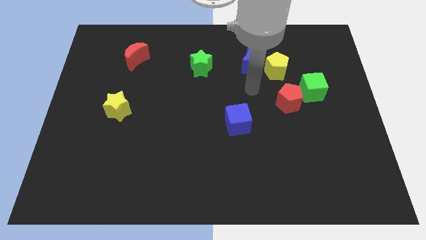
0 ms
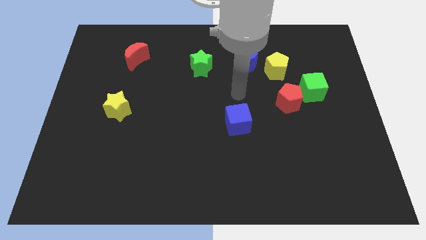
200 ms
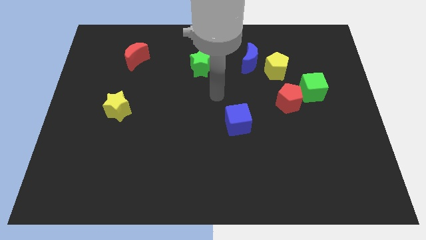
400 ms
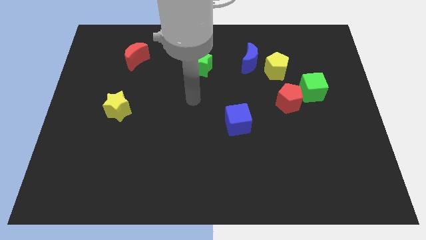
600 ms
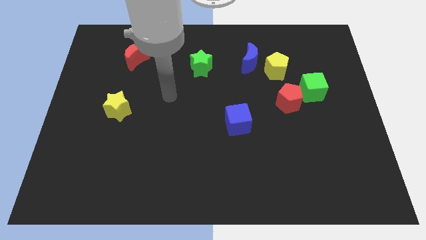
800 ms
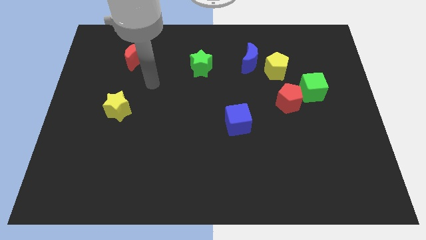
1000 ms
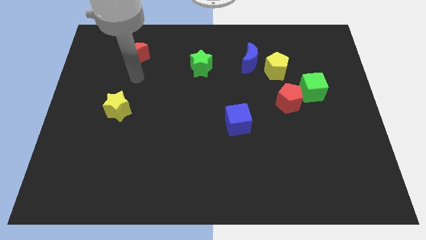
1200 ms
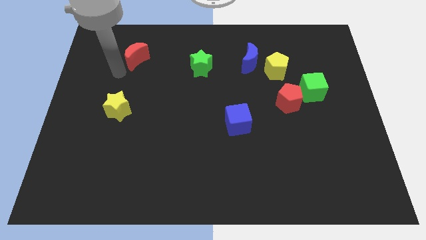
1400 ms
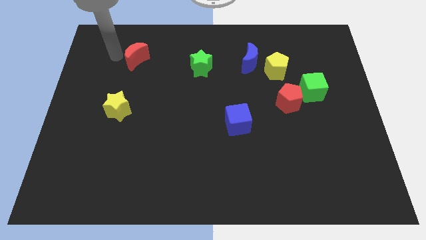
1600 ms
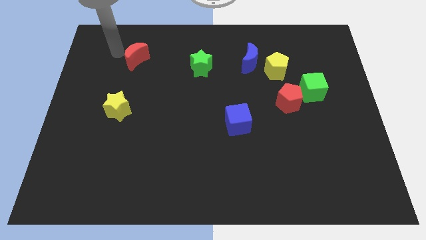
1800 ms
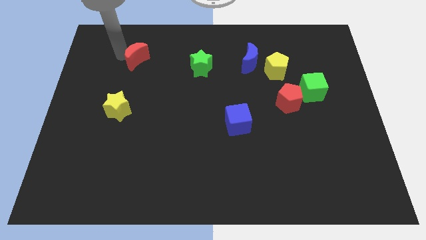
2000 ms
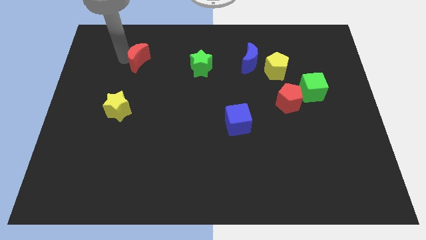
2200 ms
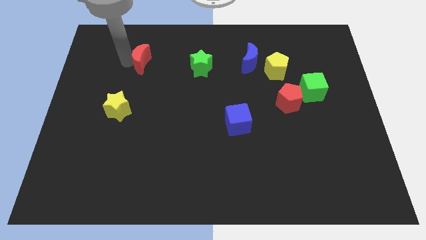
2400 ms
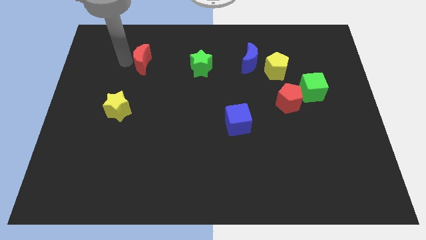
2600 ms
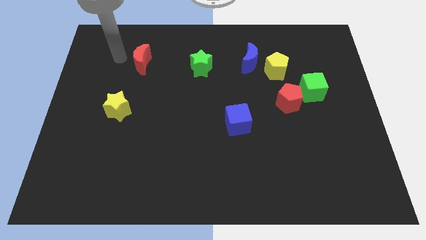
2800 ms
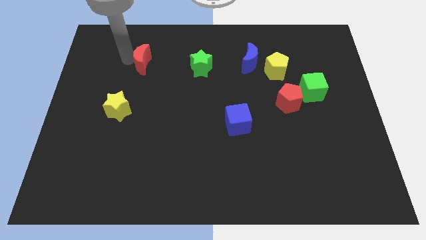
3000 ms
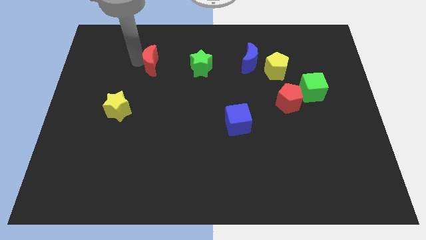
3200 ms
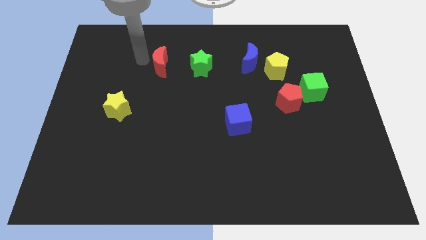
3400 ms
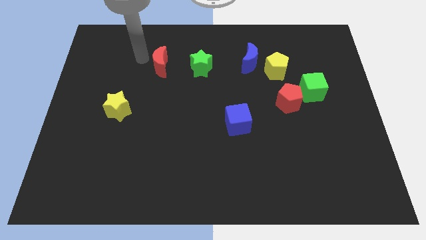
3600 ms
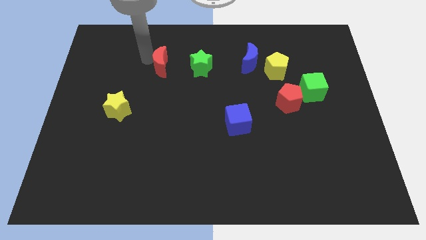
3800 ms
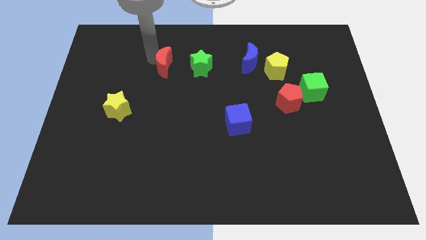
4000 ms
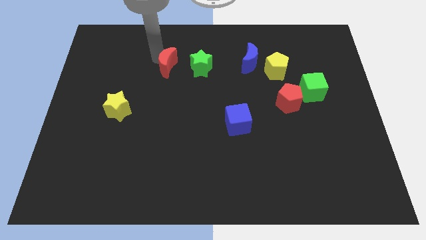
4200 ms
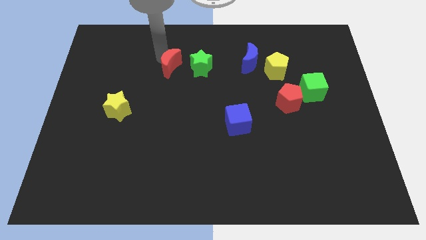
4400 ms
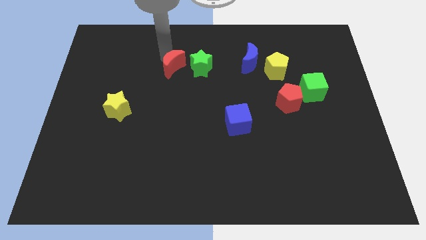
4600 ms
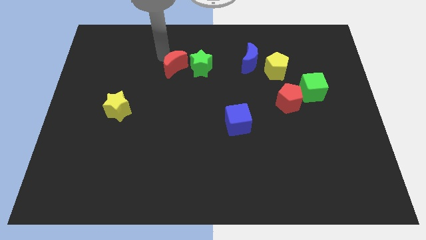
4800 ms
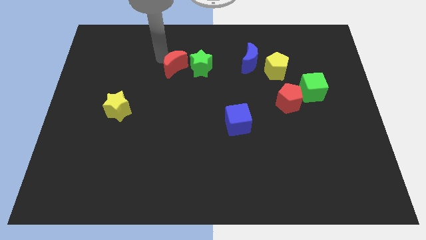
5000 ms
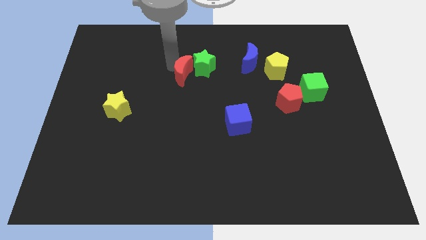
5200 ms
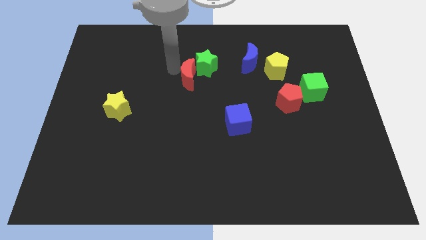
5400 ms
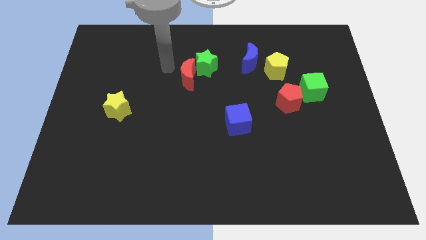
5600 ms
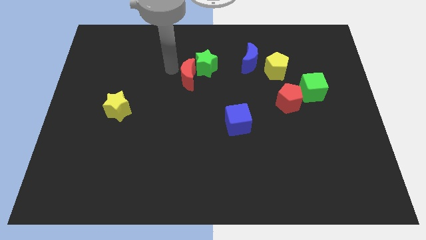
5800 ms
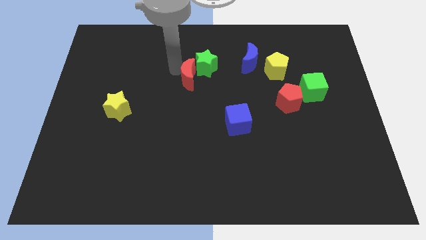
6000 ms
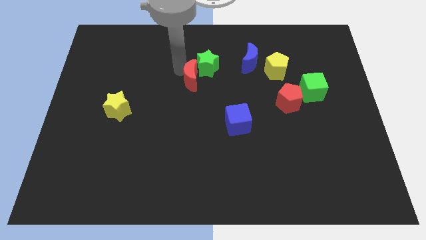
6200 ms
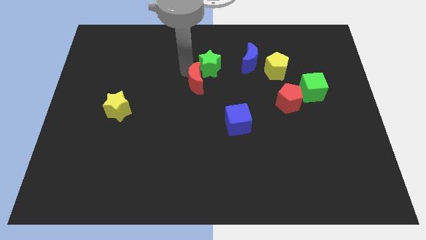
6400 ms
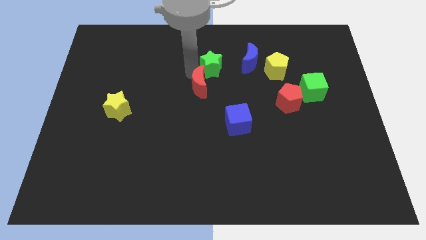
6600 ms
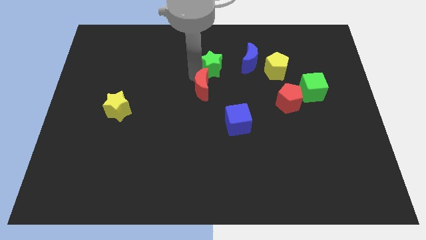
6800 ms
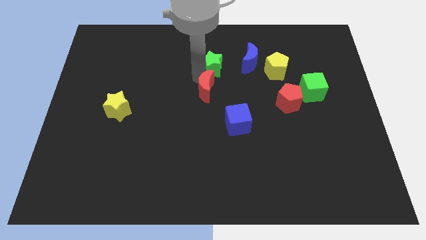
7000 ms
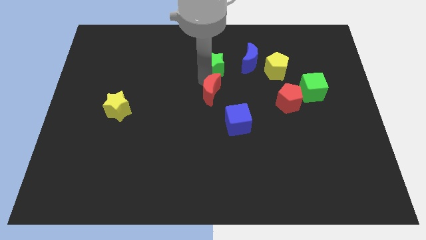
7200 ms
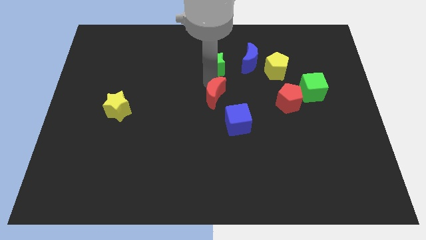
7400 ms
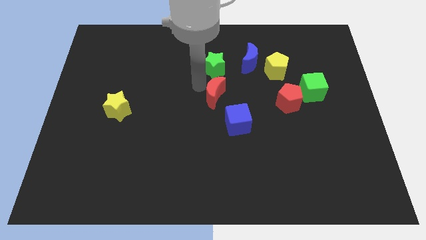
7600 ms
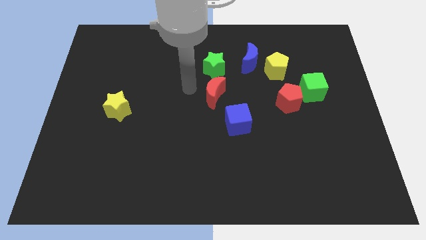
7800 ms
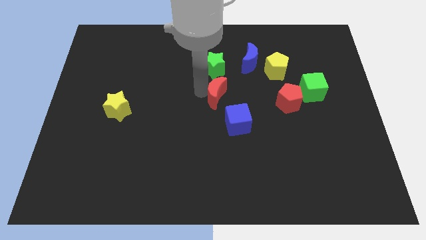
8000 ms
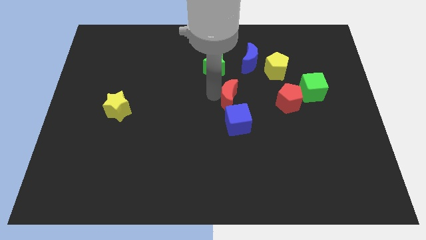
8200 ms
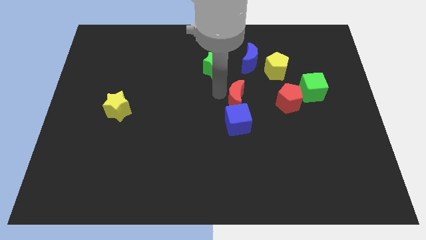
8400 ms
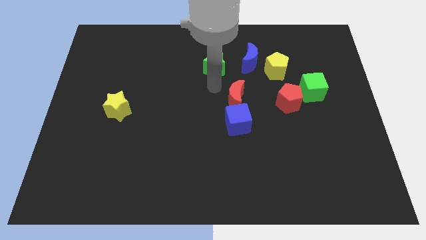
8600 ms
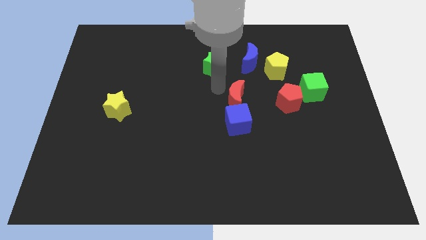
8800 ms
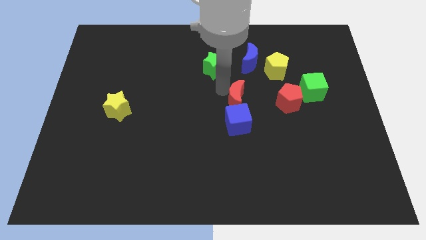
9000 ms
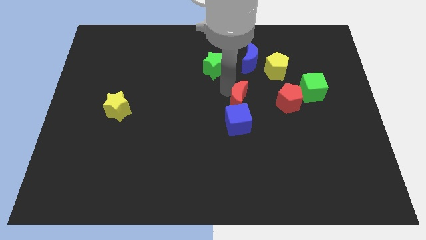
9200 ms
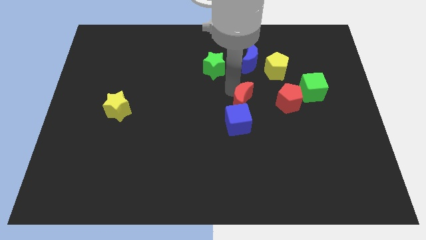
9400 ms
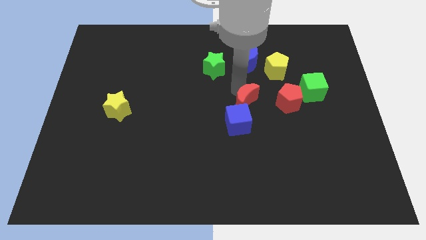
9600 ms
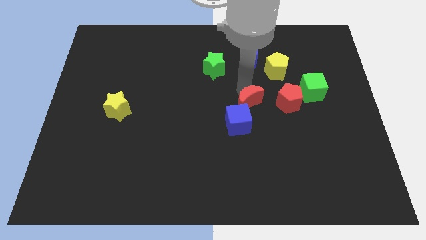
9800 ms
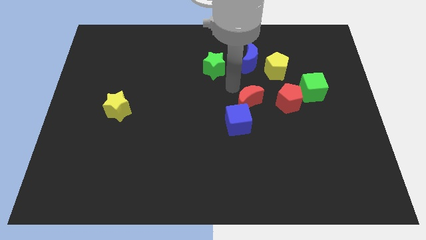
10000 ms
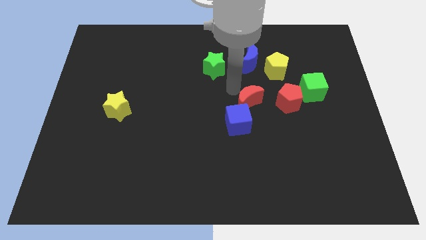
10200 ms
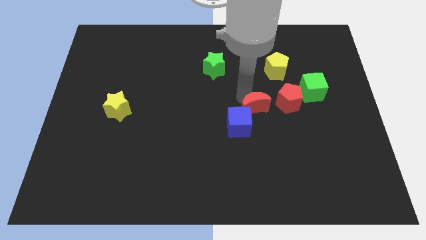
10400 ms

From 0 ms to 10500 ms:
push the red moon to the bottom left side of the red pentagon

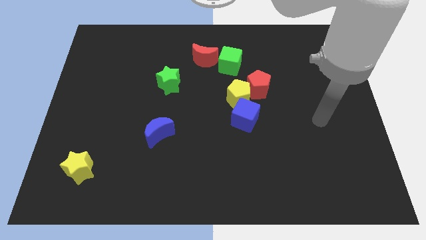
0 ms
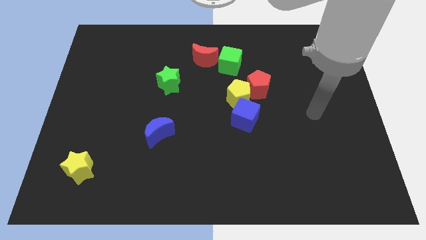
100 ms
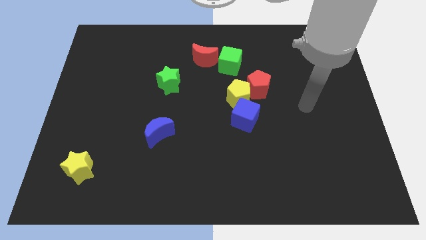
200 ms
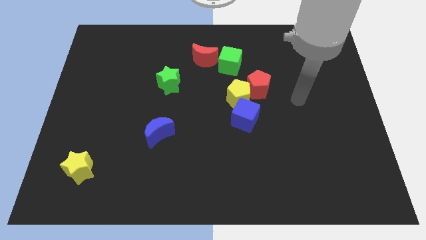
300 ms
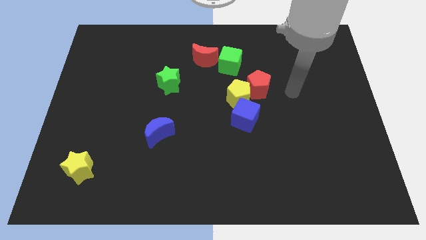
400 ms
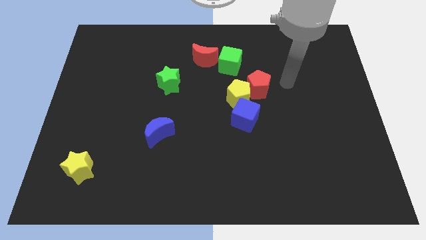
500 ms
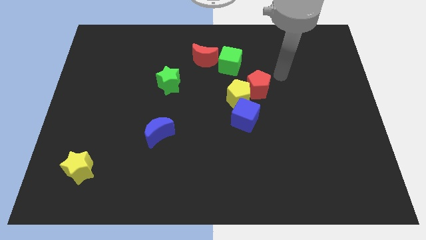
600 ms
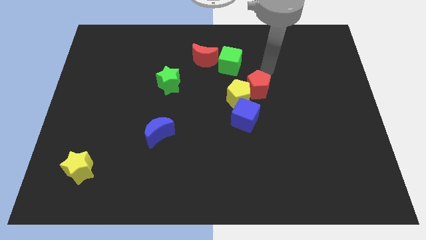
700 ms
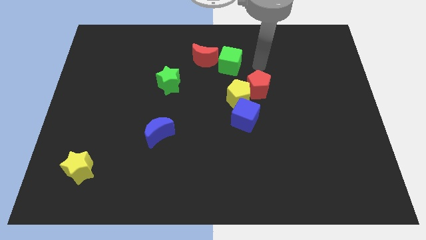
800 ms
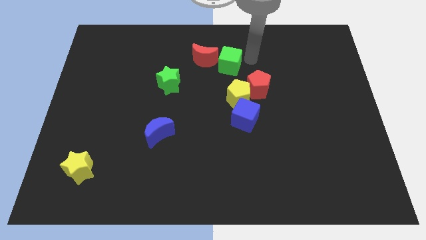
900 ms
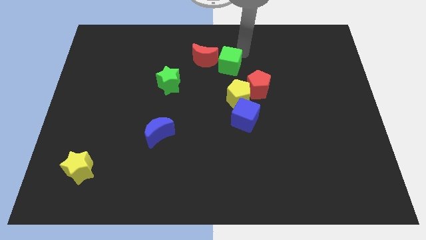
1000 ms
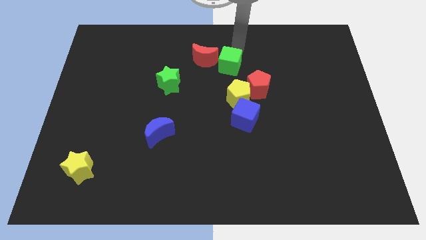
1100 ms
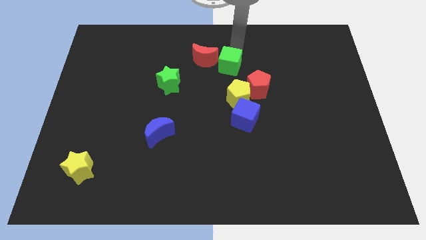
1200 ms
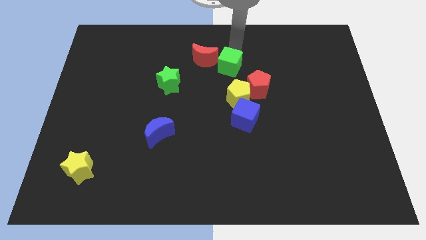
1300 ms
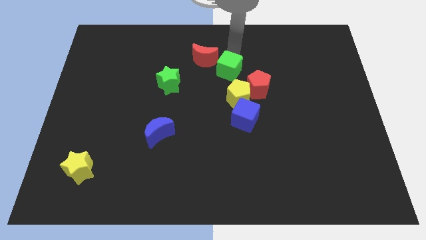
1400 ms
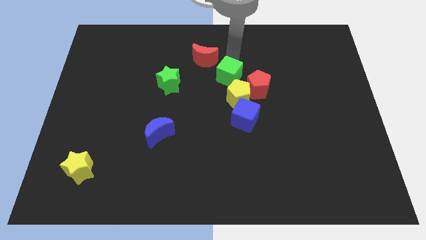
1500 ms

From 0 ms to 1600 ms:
put the green cube to the left side of the red pentagon

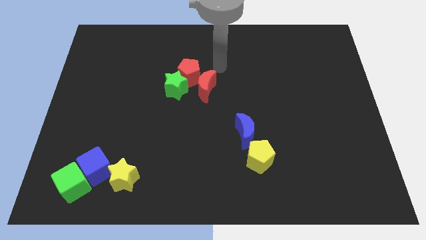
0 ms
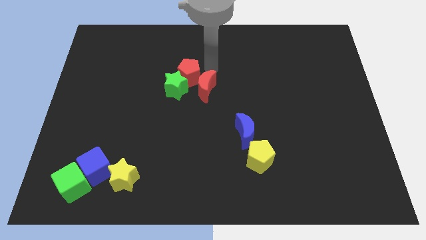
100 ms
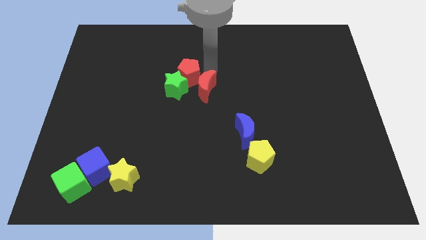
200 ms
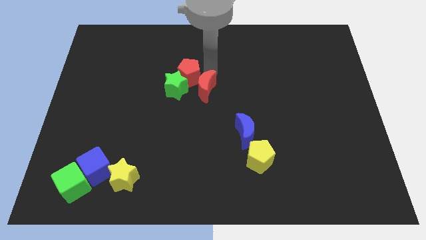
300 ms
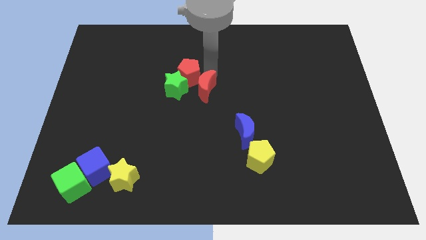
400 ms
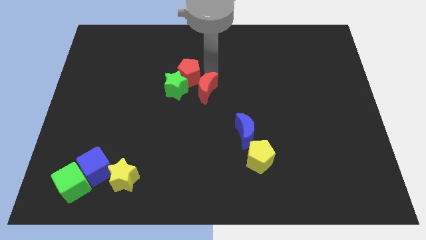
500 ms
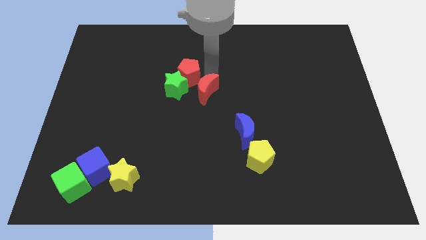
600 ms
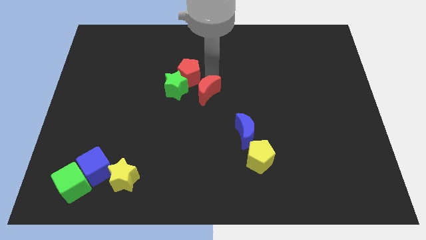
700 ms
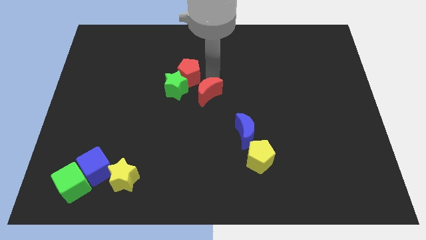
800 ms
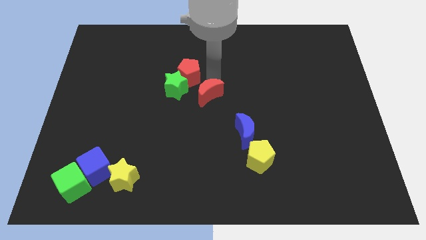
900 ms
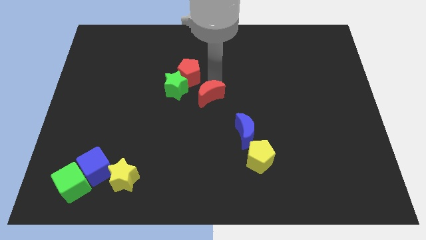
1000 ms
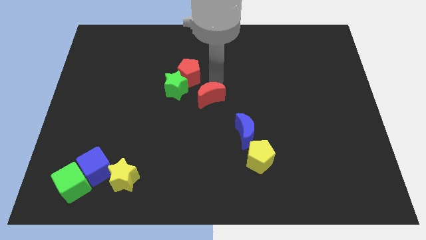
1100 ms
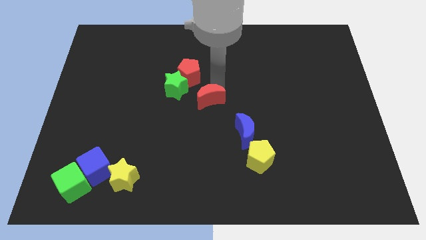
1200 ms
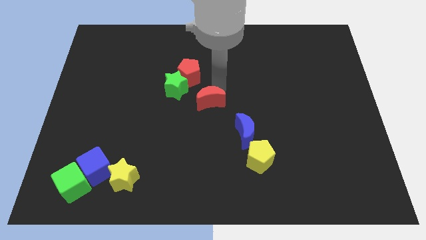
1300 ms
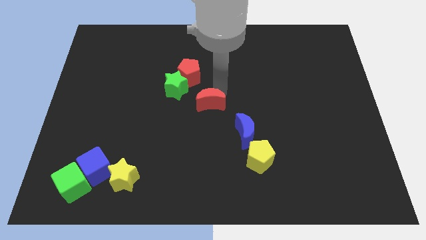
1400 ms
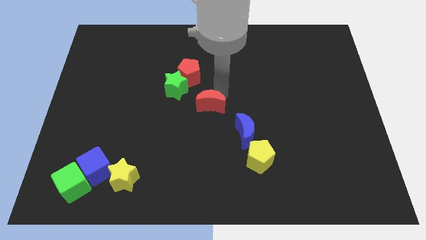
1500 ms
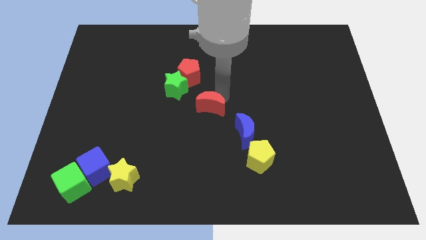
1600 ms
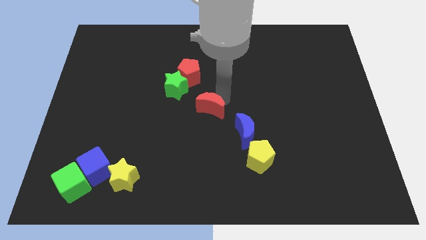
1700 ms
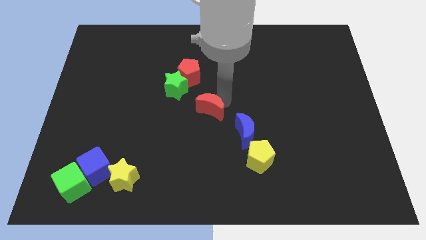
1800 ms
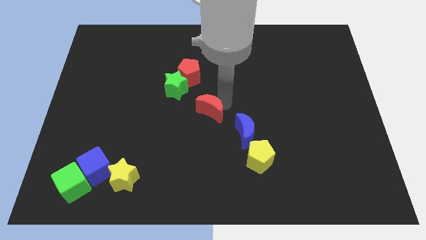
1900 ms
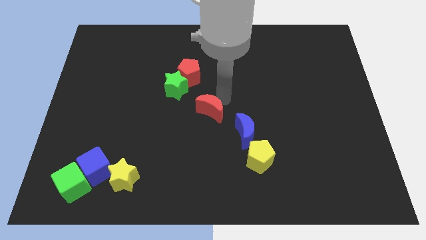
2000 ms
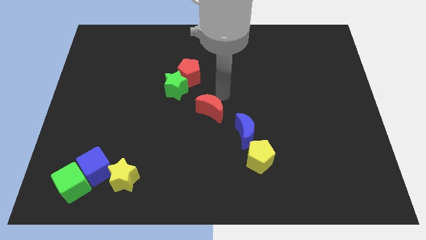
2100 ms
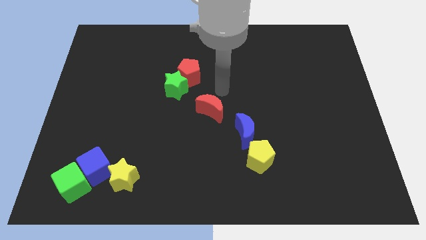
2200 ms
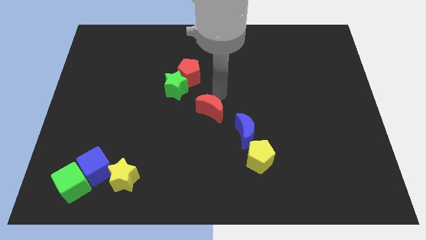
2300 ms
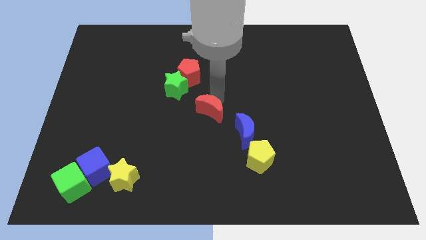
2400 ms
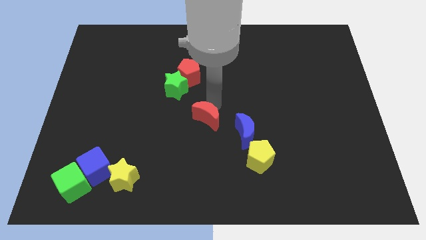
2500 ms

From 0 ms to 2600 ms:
push the red moon to the left of the blue moon
